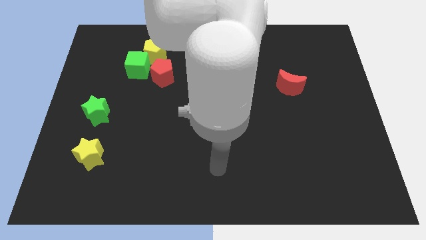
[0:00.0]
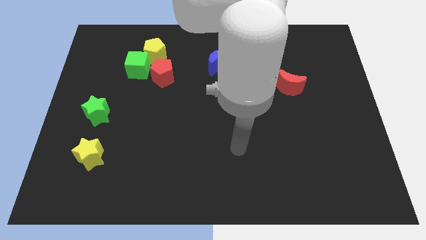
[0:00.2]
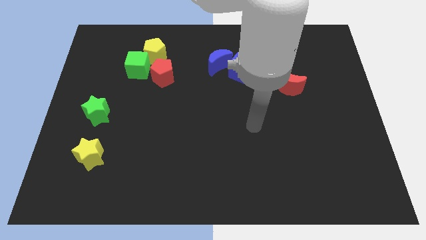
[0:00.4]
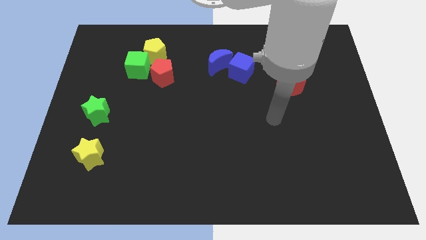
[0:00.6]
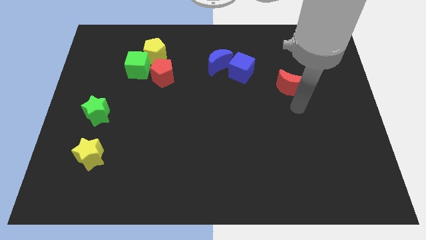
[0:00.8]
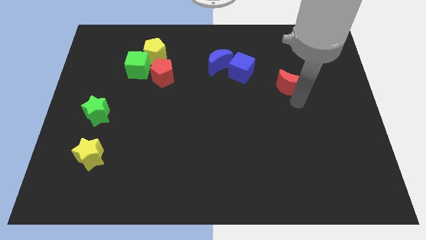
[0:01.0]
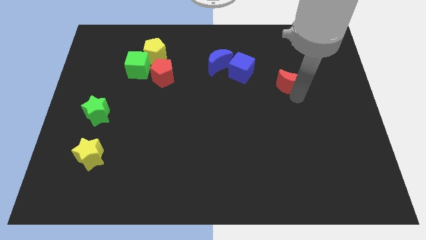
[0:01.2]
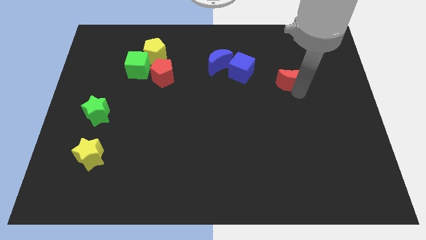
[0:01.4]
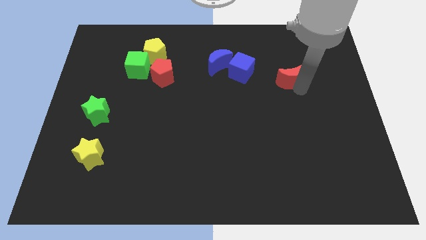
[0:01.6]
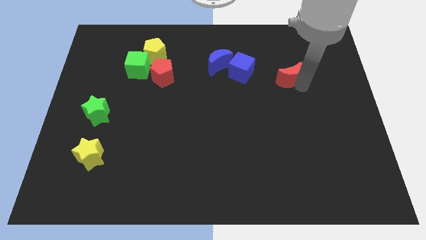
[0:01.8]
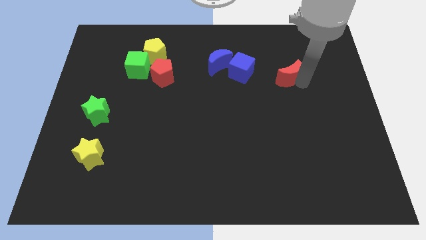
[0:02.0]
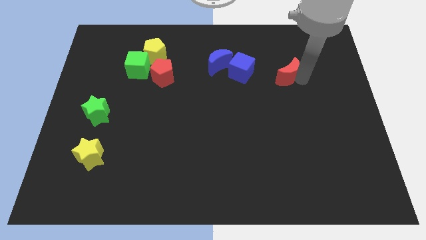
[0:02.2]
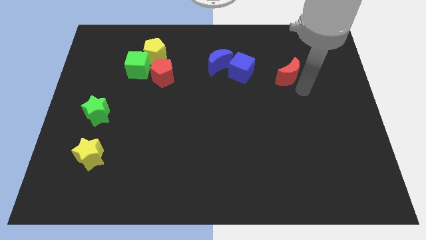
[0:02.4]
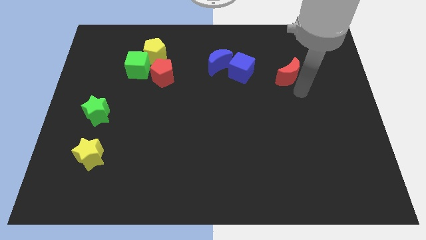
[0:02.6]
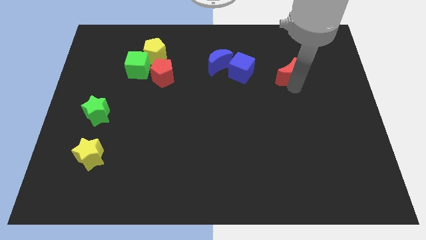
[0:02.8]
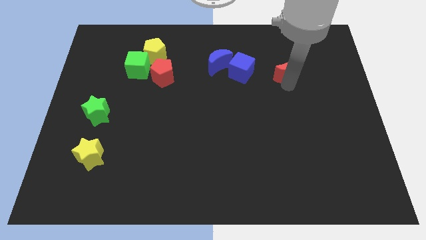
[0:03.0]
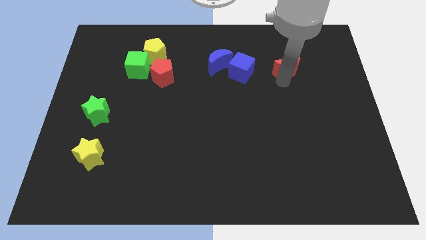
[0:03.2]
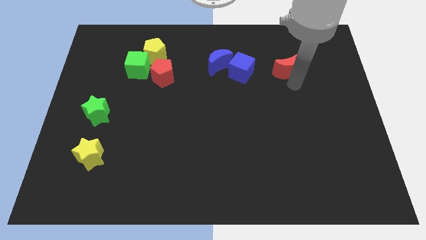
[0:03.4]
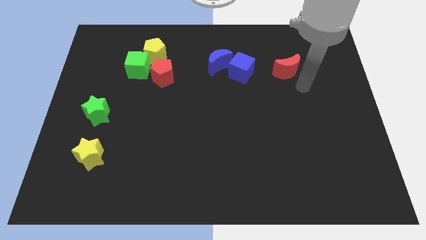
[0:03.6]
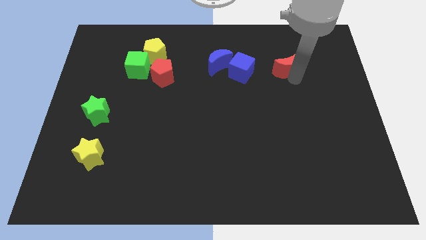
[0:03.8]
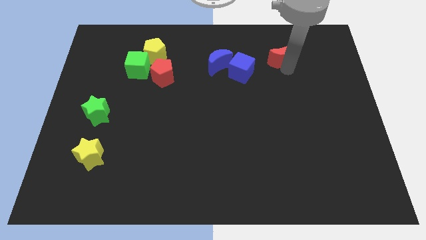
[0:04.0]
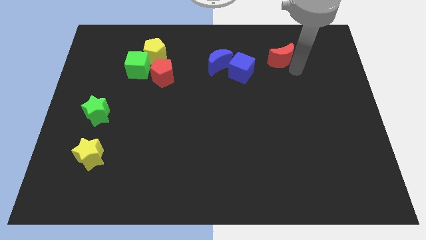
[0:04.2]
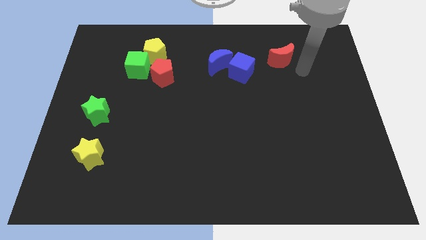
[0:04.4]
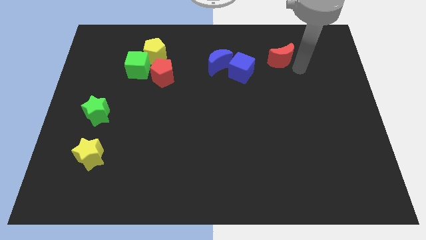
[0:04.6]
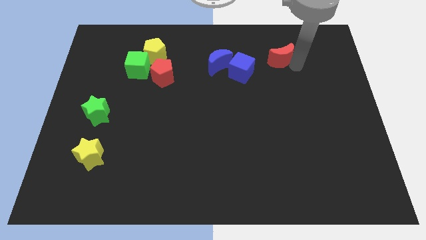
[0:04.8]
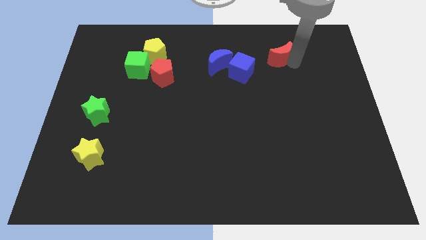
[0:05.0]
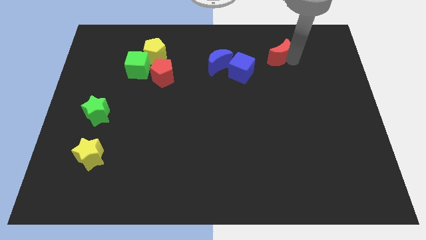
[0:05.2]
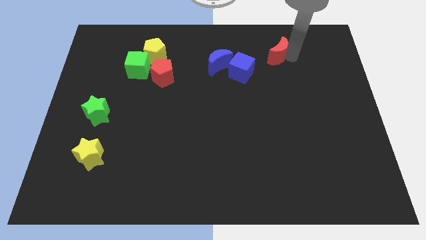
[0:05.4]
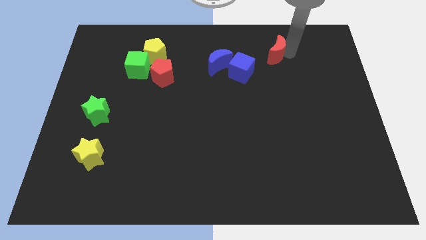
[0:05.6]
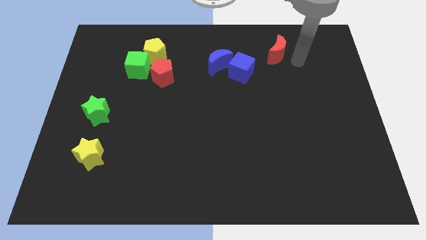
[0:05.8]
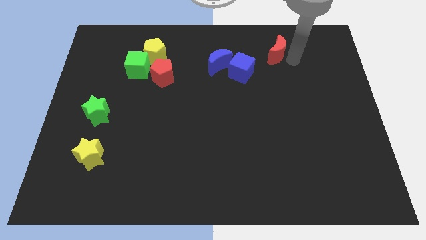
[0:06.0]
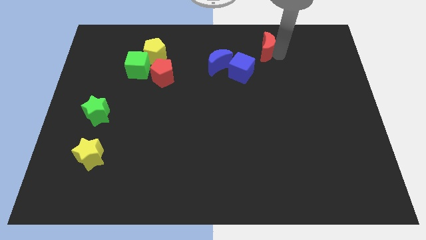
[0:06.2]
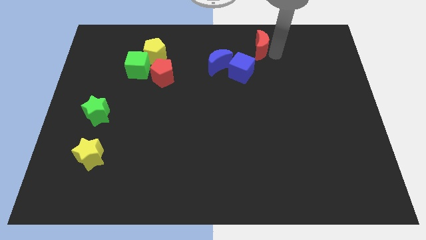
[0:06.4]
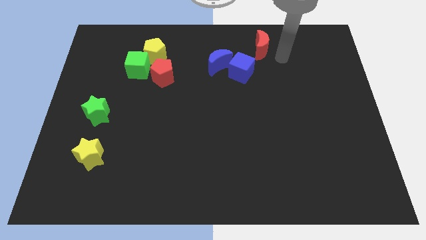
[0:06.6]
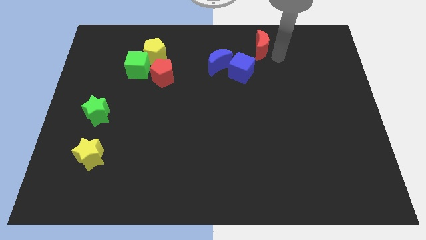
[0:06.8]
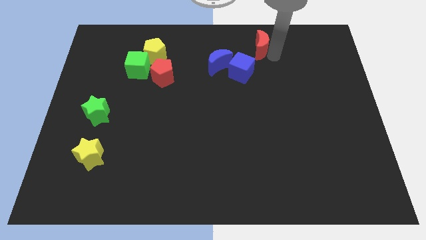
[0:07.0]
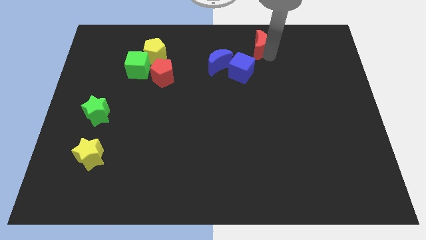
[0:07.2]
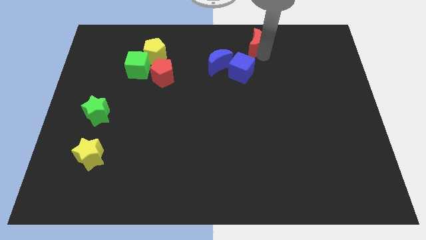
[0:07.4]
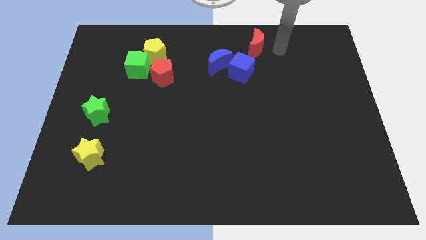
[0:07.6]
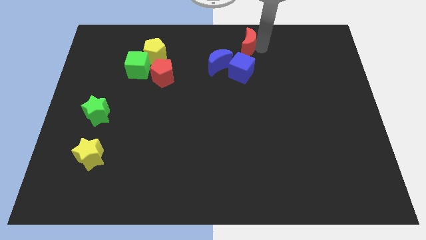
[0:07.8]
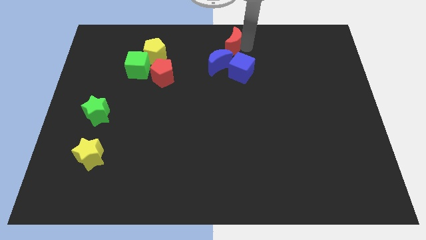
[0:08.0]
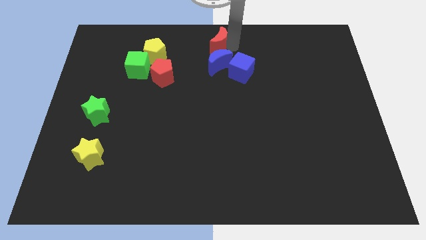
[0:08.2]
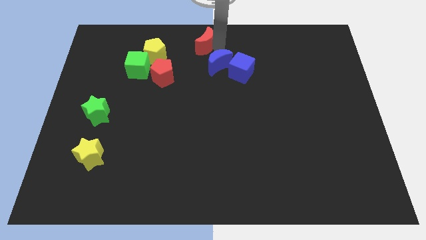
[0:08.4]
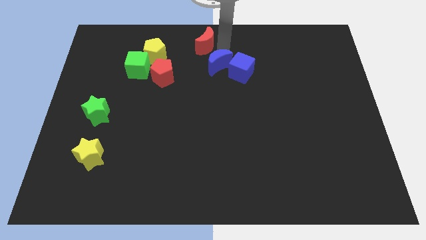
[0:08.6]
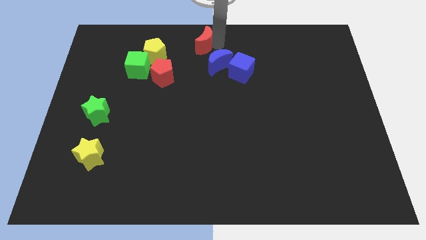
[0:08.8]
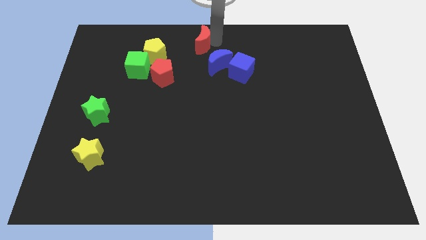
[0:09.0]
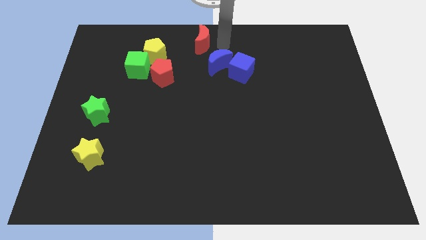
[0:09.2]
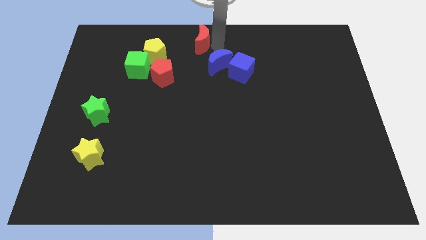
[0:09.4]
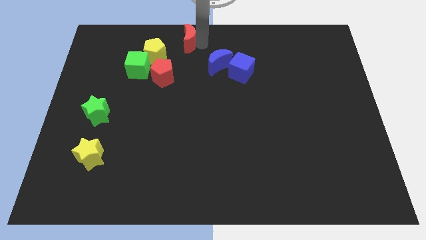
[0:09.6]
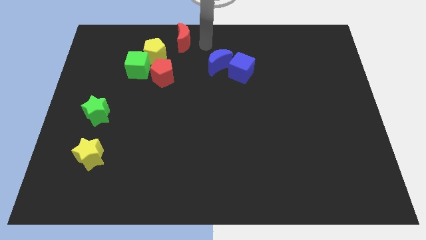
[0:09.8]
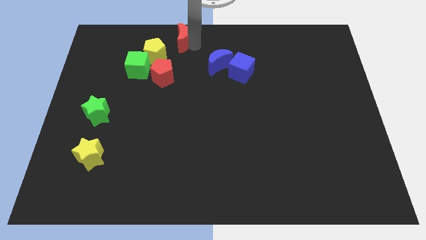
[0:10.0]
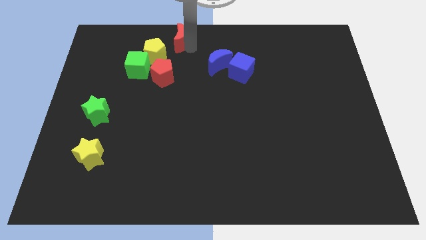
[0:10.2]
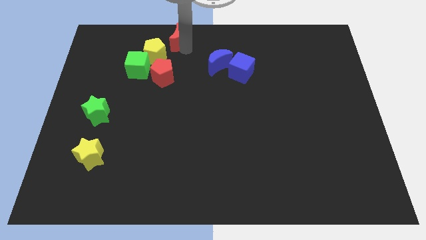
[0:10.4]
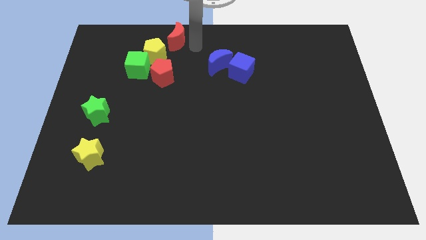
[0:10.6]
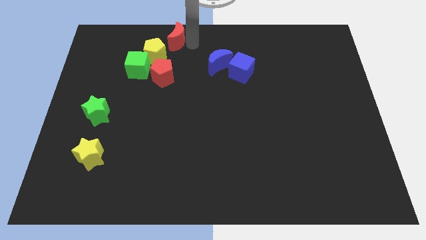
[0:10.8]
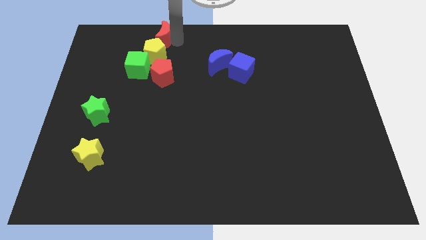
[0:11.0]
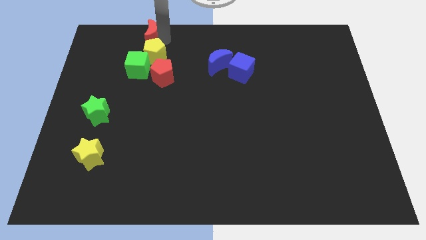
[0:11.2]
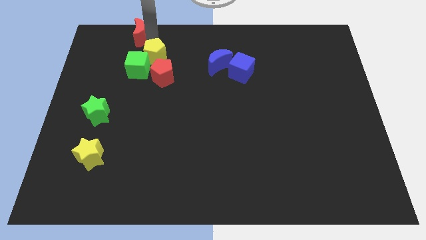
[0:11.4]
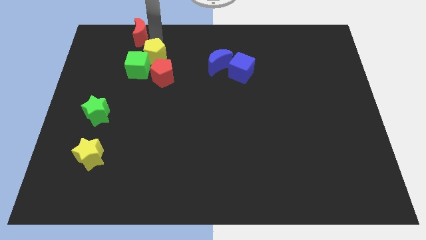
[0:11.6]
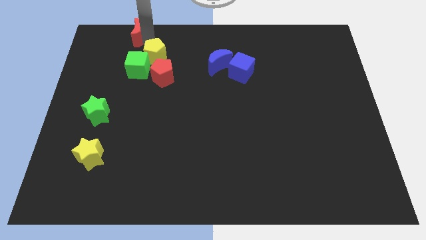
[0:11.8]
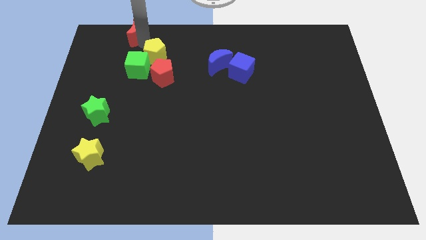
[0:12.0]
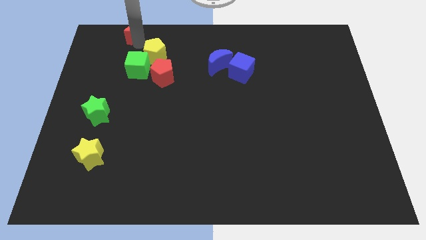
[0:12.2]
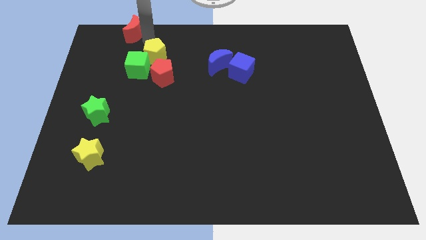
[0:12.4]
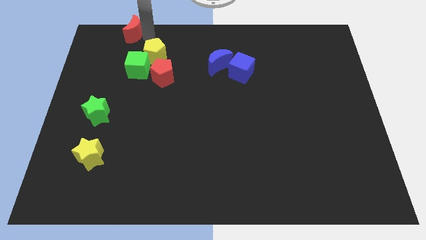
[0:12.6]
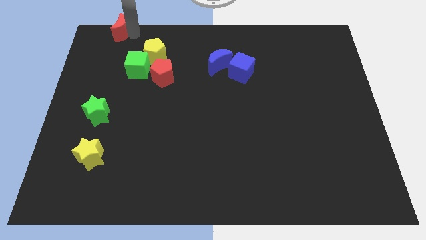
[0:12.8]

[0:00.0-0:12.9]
push the red moon to the top left of the board
